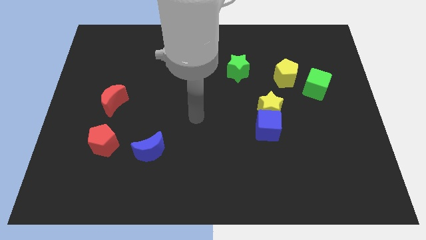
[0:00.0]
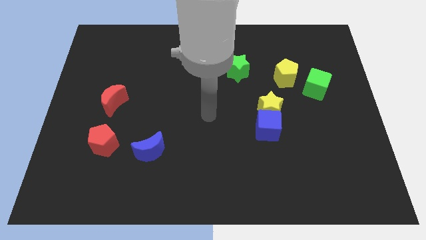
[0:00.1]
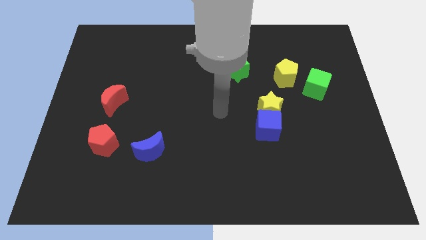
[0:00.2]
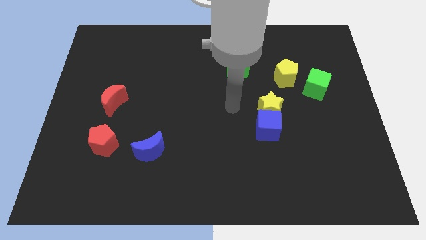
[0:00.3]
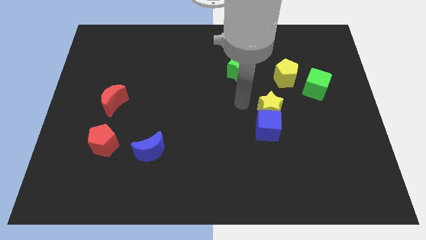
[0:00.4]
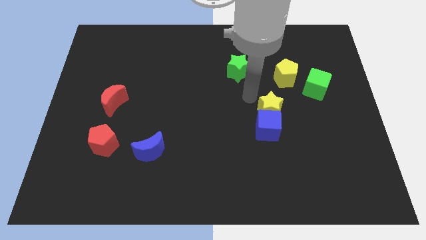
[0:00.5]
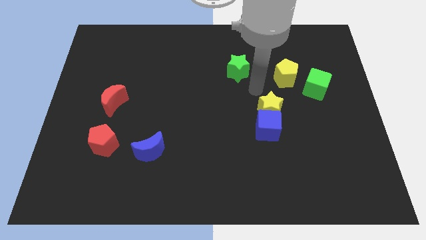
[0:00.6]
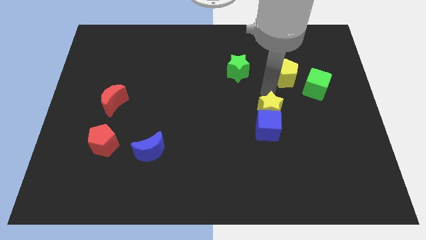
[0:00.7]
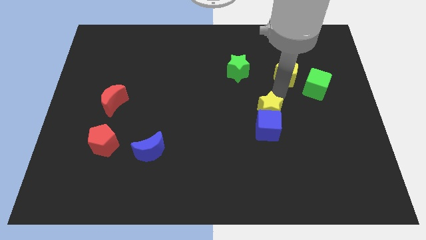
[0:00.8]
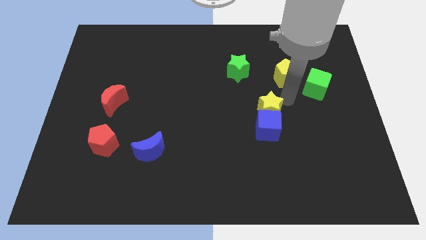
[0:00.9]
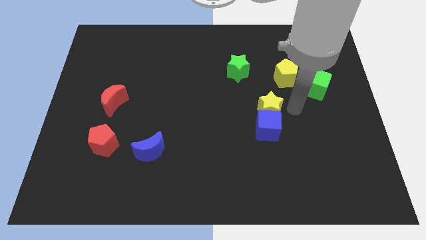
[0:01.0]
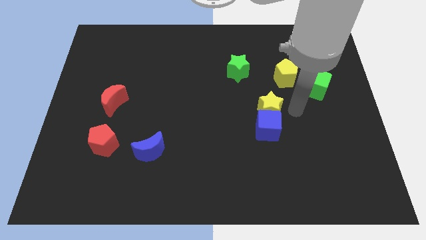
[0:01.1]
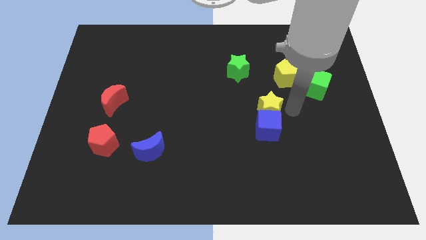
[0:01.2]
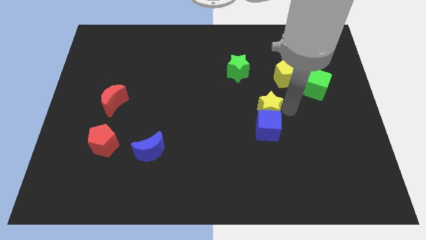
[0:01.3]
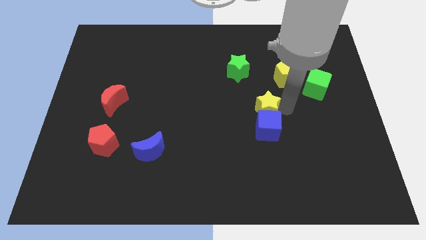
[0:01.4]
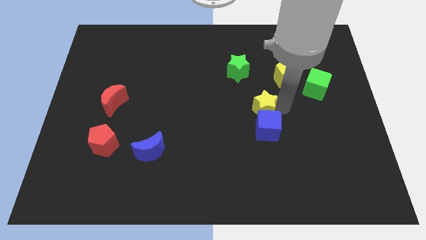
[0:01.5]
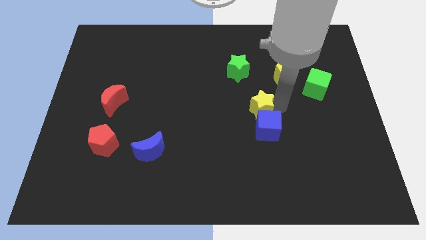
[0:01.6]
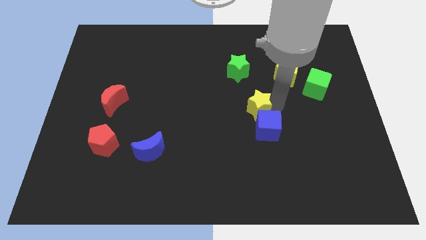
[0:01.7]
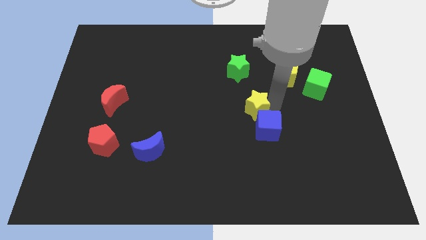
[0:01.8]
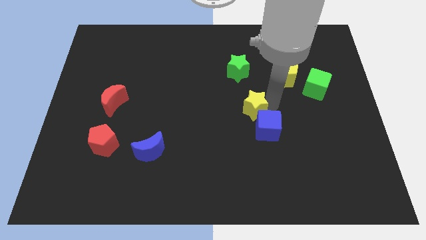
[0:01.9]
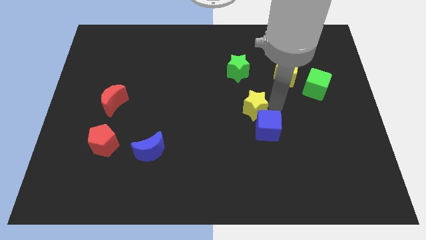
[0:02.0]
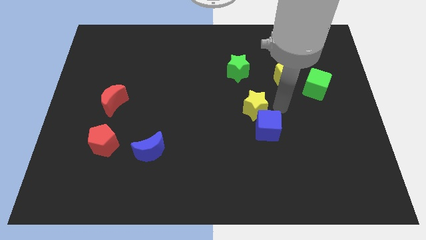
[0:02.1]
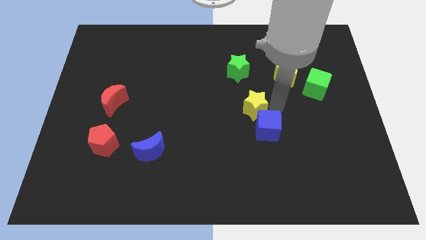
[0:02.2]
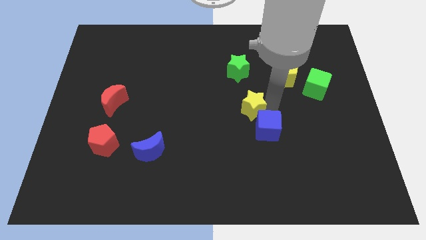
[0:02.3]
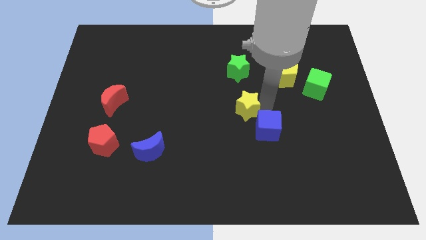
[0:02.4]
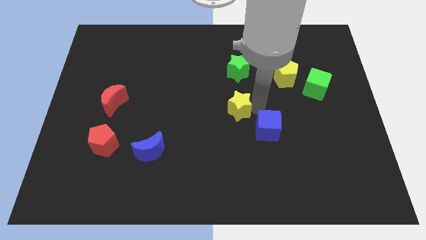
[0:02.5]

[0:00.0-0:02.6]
slightly push the yellow star to the left

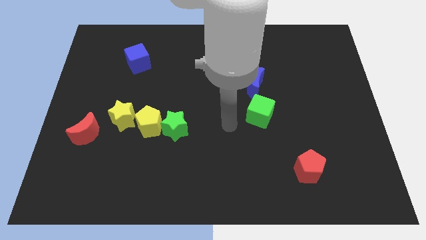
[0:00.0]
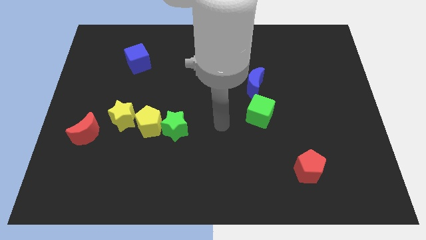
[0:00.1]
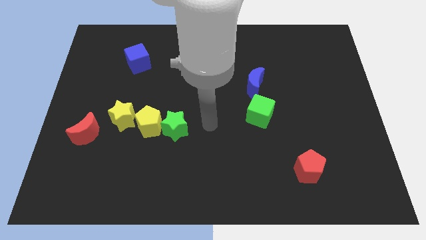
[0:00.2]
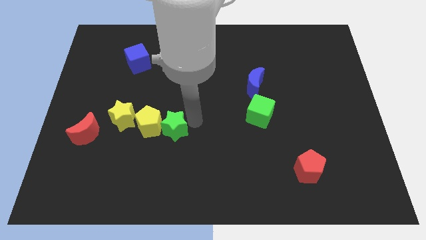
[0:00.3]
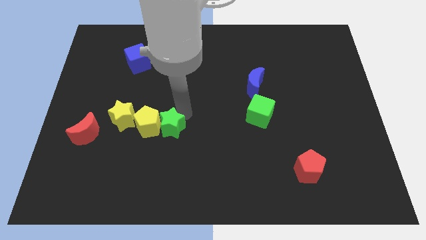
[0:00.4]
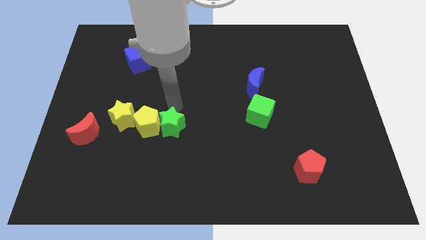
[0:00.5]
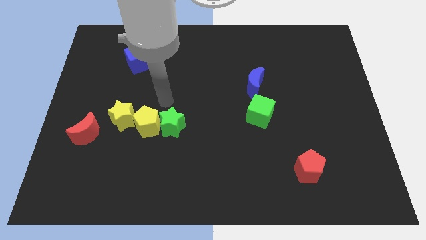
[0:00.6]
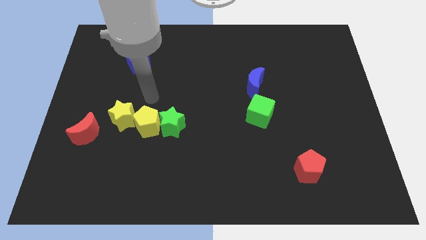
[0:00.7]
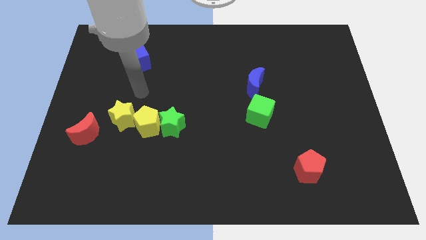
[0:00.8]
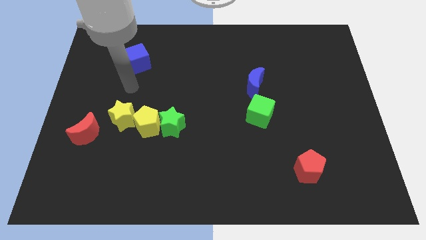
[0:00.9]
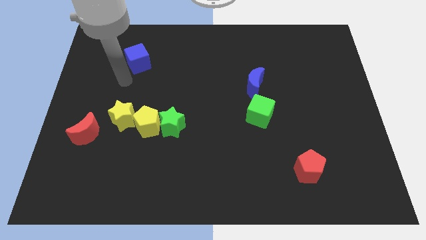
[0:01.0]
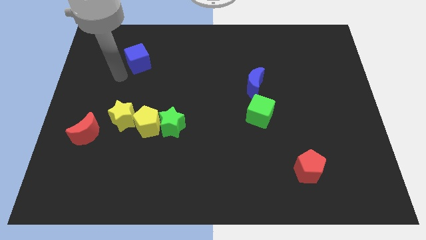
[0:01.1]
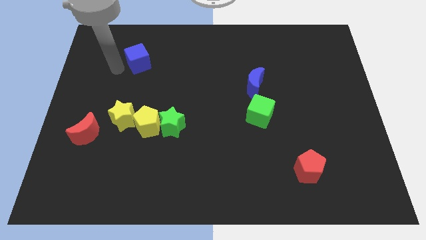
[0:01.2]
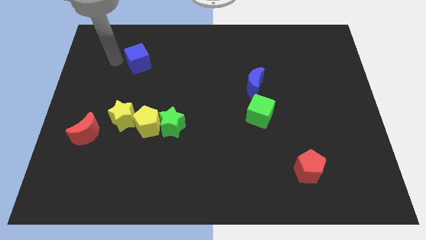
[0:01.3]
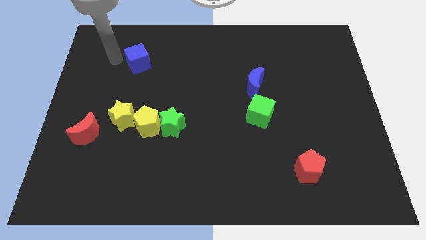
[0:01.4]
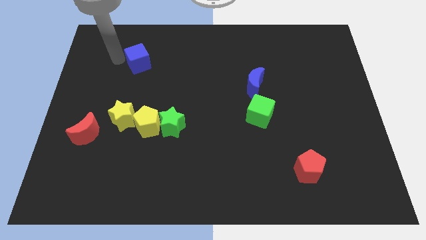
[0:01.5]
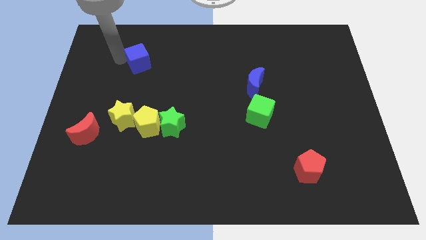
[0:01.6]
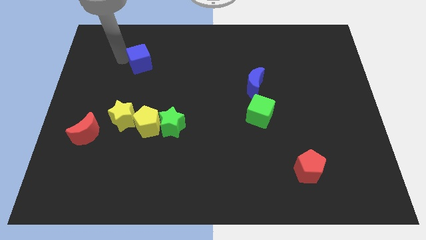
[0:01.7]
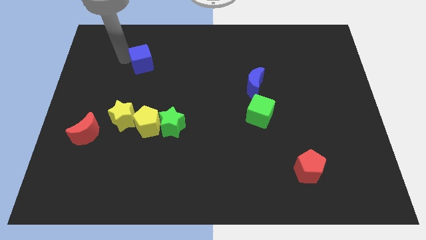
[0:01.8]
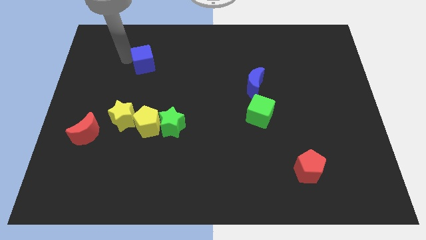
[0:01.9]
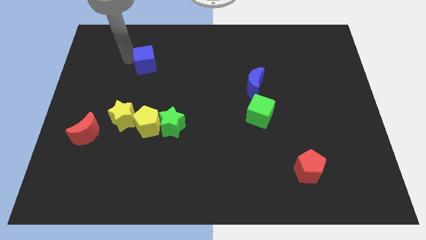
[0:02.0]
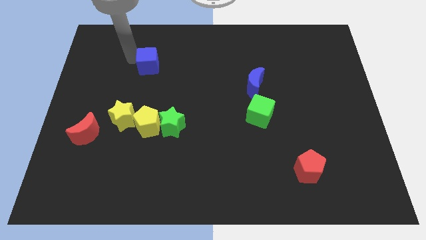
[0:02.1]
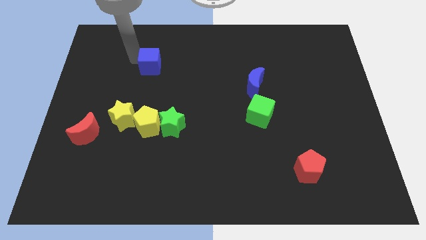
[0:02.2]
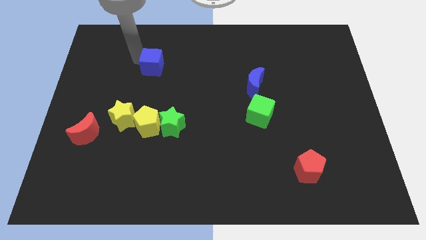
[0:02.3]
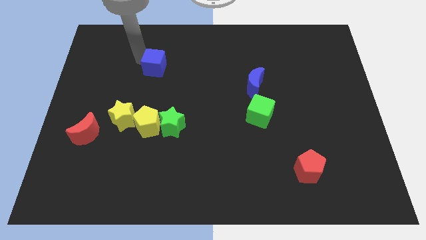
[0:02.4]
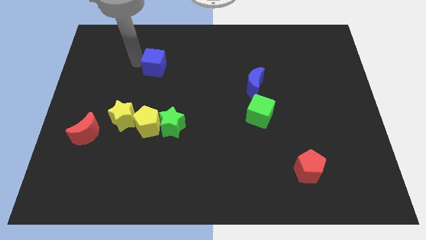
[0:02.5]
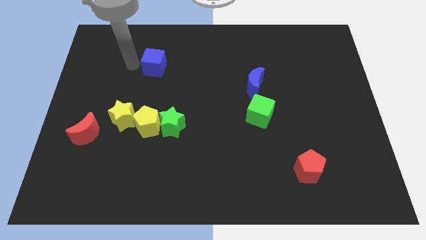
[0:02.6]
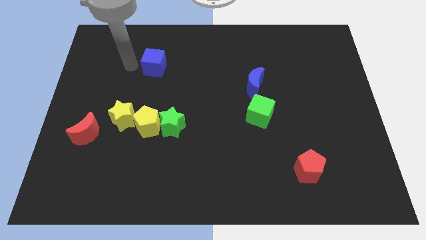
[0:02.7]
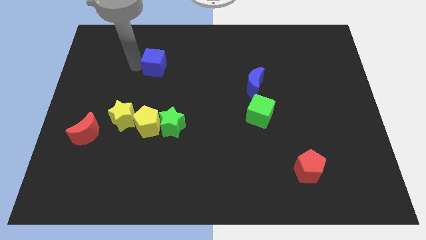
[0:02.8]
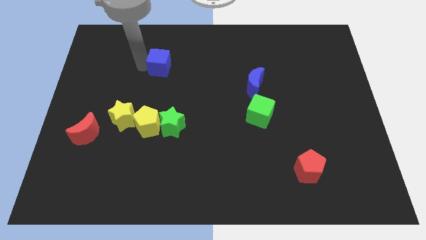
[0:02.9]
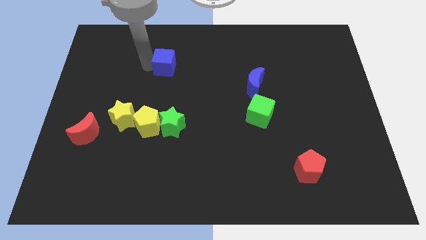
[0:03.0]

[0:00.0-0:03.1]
slightly push the blue cube to the right

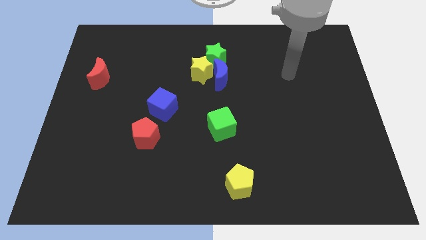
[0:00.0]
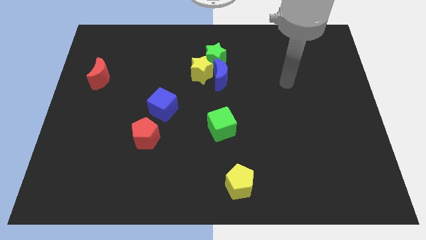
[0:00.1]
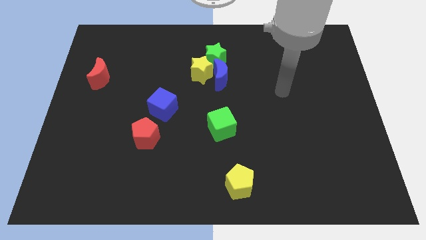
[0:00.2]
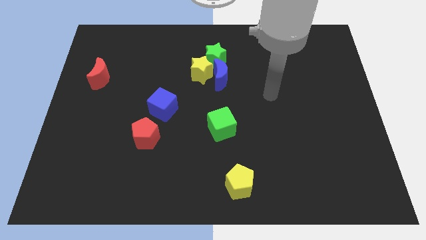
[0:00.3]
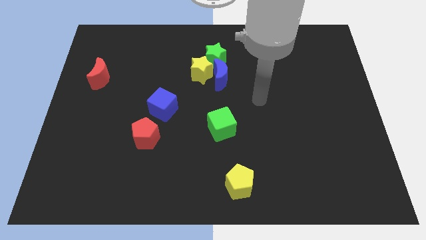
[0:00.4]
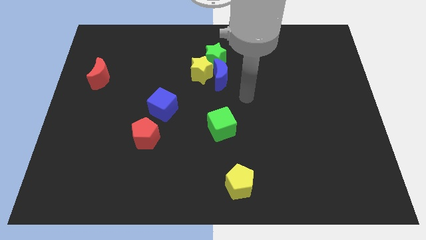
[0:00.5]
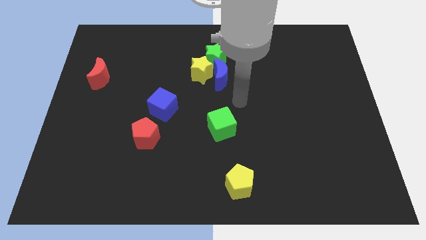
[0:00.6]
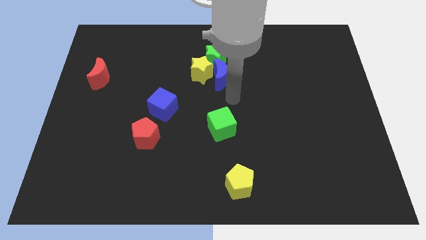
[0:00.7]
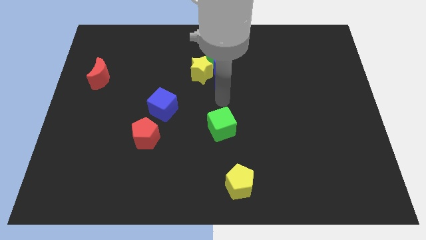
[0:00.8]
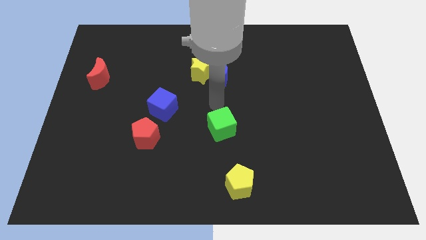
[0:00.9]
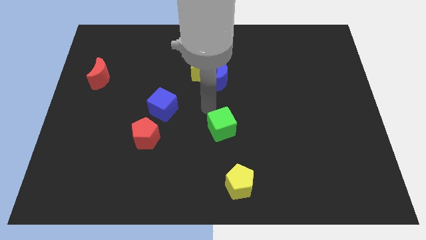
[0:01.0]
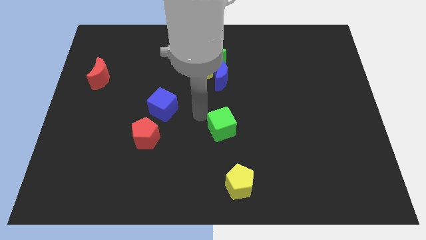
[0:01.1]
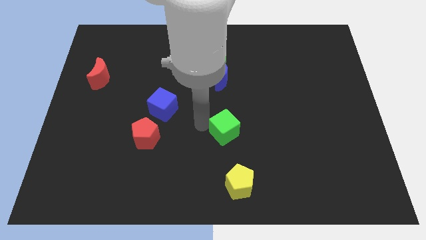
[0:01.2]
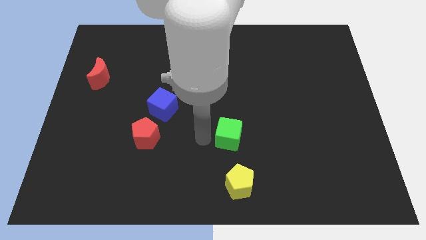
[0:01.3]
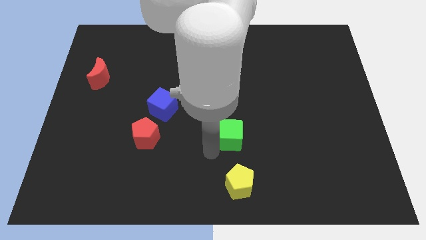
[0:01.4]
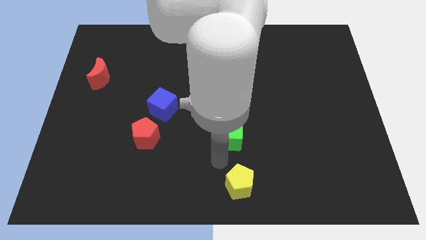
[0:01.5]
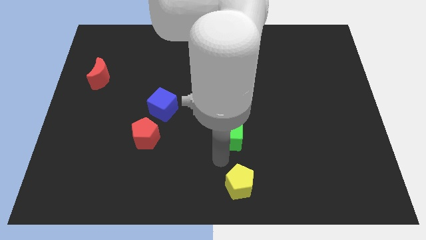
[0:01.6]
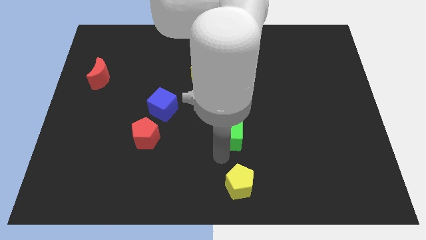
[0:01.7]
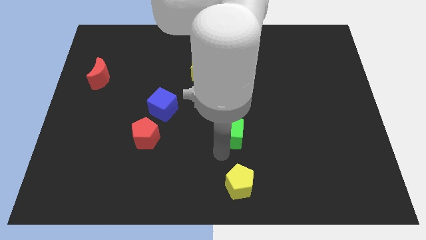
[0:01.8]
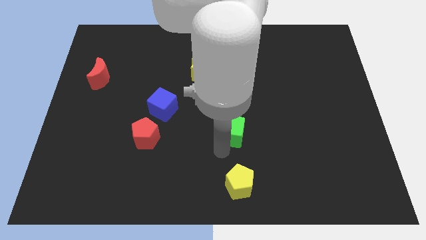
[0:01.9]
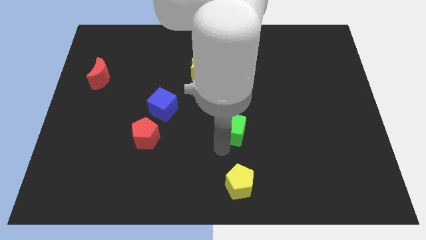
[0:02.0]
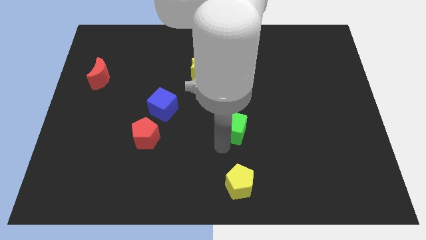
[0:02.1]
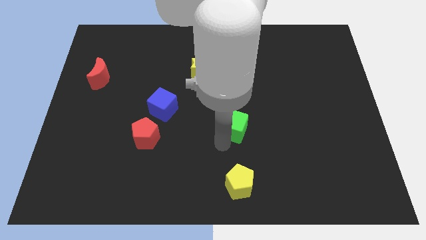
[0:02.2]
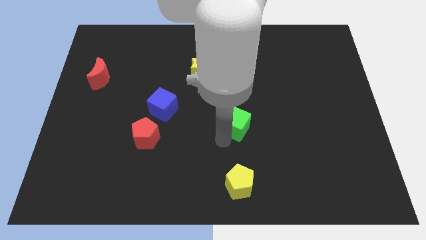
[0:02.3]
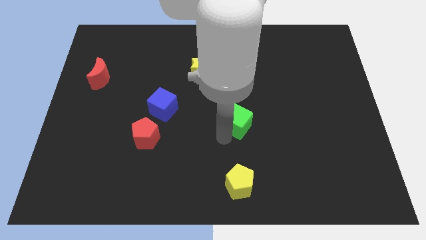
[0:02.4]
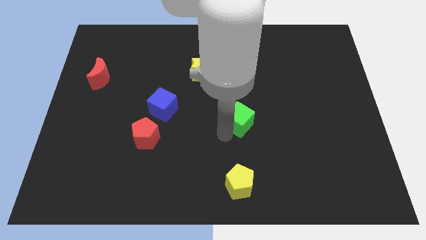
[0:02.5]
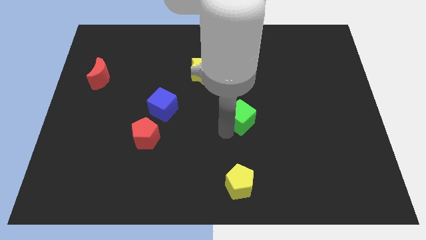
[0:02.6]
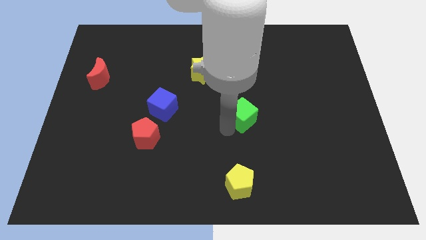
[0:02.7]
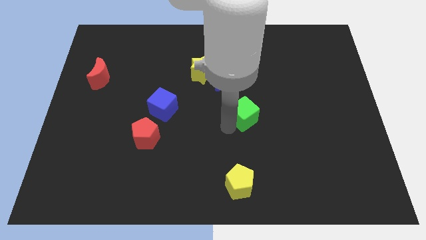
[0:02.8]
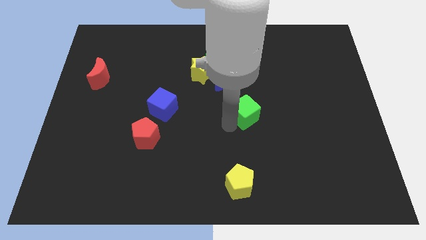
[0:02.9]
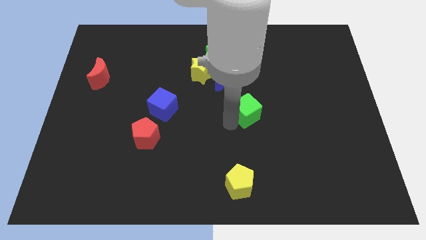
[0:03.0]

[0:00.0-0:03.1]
push the green cube somewhat up and right
